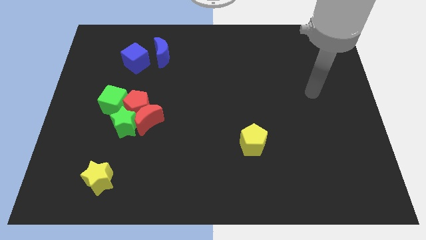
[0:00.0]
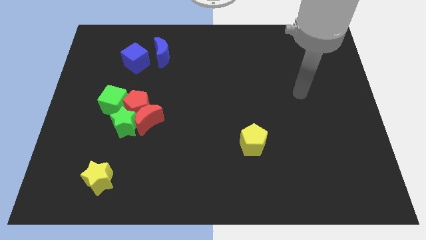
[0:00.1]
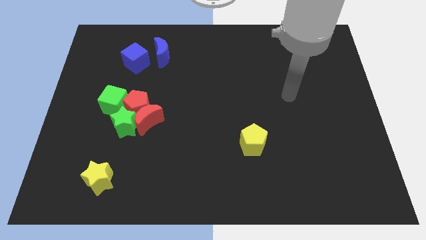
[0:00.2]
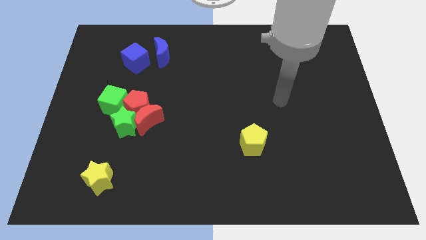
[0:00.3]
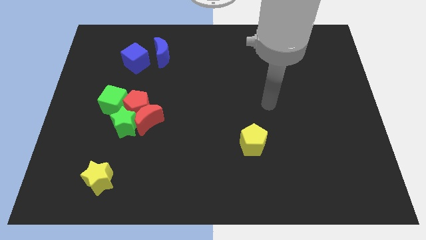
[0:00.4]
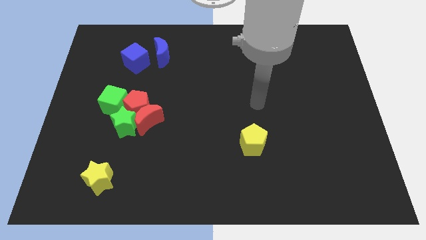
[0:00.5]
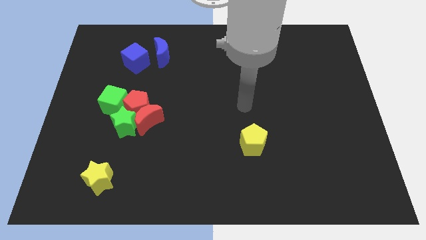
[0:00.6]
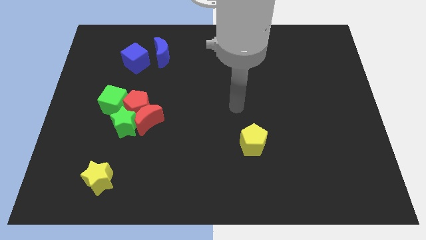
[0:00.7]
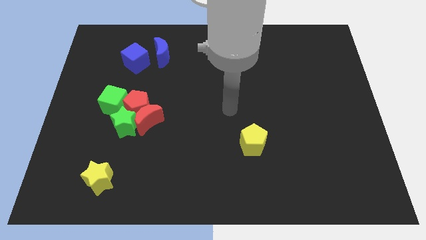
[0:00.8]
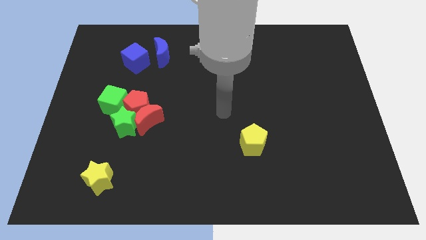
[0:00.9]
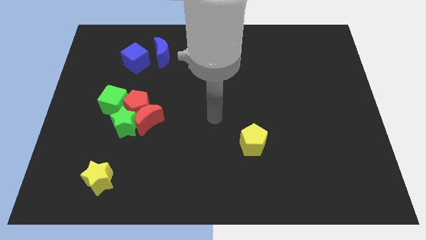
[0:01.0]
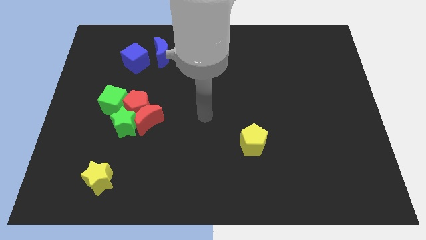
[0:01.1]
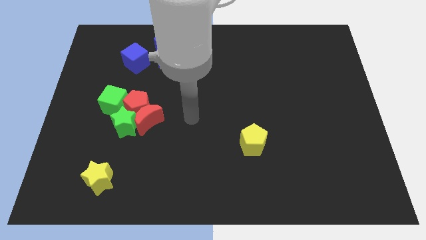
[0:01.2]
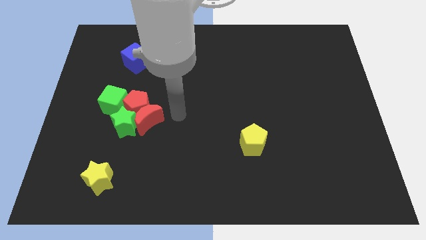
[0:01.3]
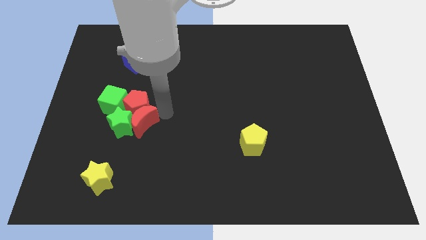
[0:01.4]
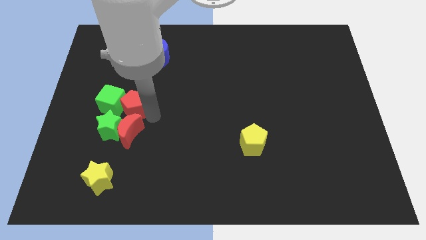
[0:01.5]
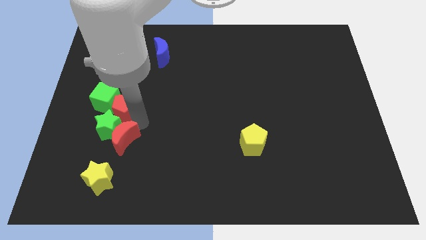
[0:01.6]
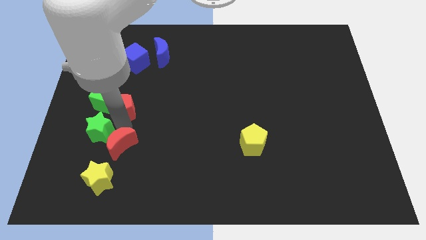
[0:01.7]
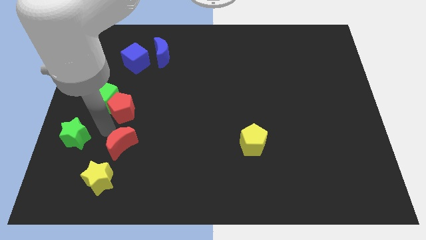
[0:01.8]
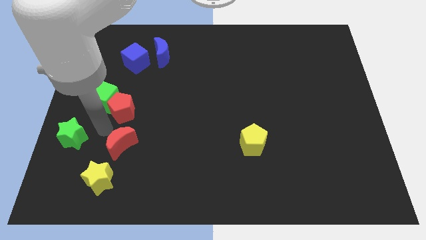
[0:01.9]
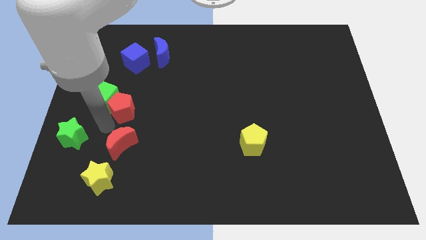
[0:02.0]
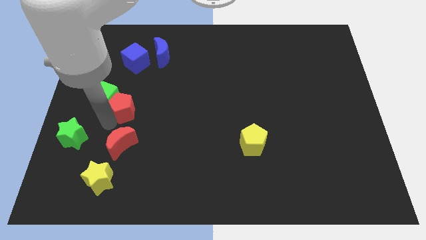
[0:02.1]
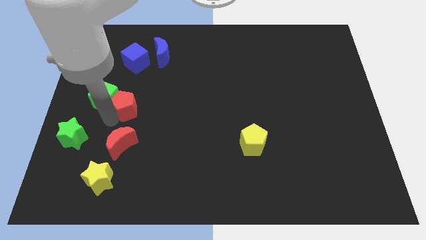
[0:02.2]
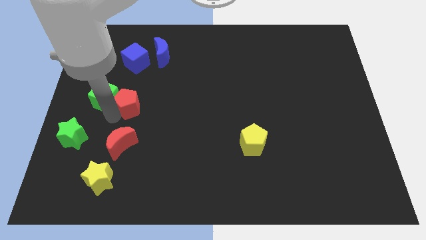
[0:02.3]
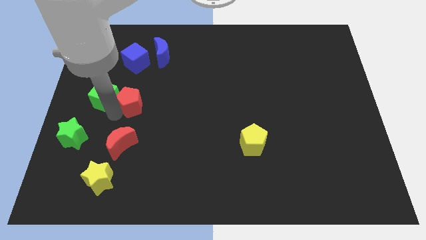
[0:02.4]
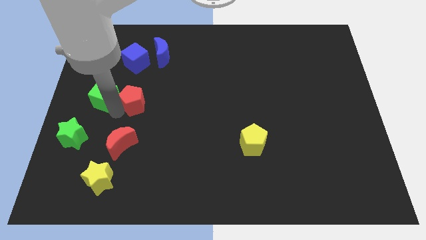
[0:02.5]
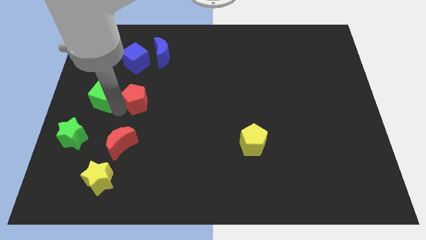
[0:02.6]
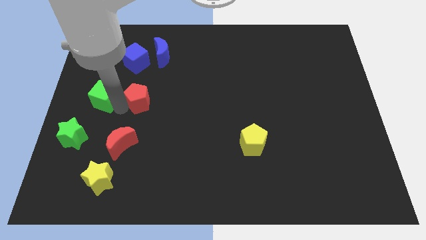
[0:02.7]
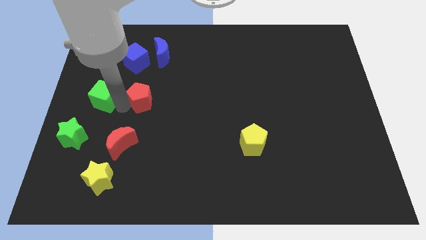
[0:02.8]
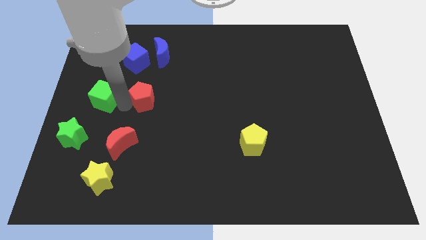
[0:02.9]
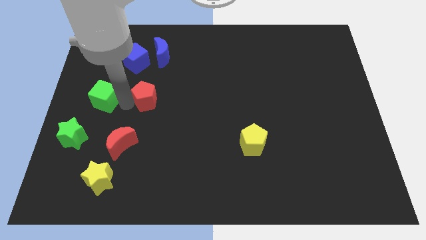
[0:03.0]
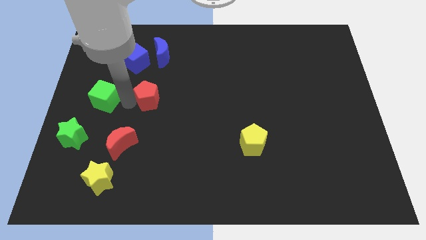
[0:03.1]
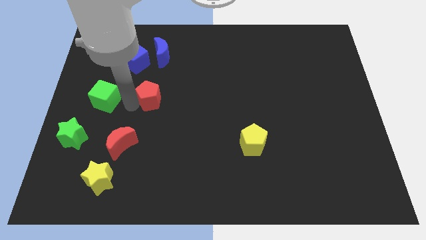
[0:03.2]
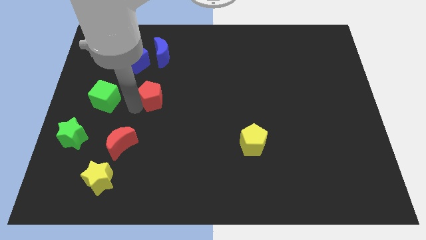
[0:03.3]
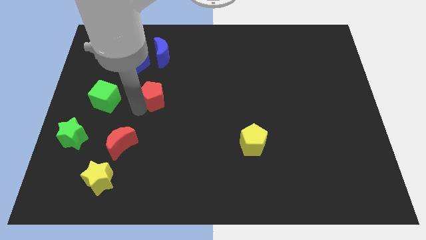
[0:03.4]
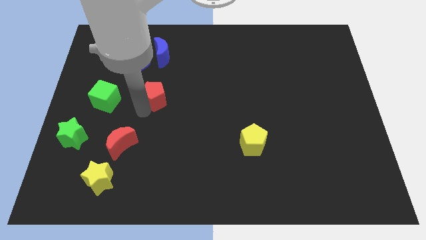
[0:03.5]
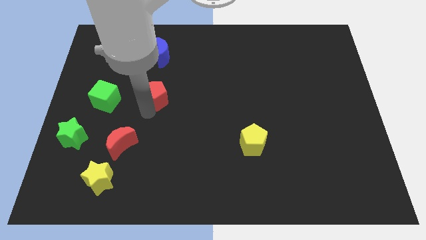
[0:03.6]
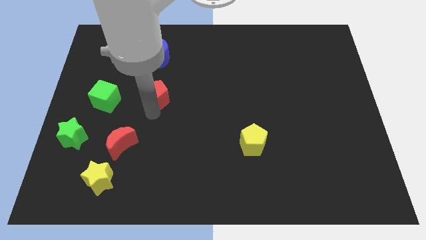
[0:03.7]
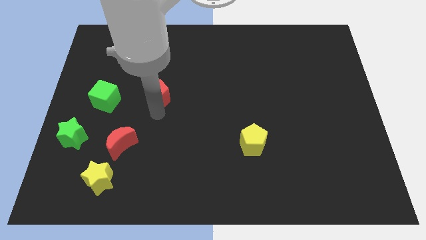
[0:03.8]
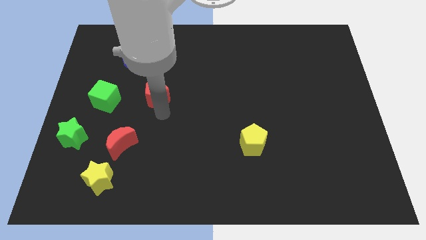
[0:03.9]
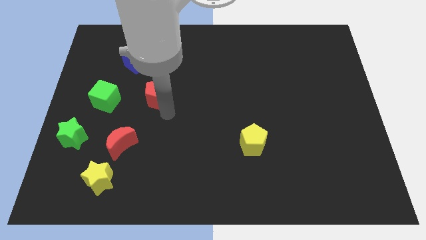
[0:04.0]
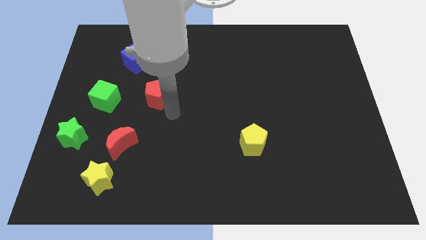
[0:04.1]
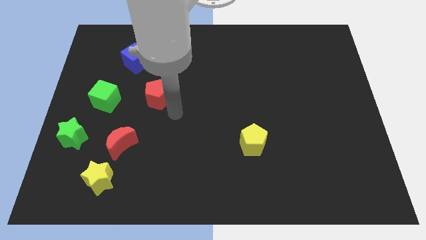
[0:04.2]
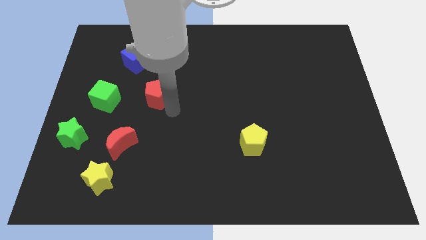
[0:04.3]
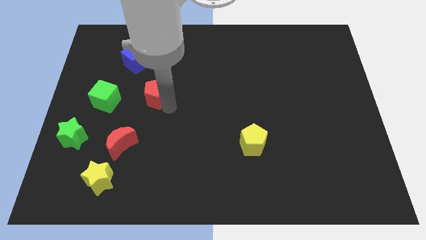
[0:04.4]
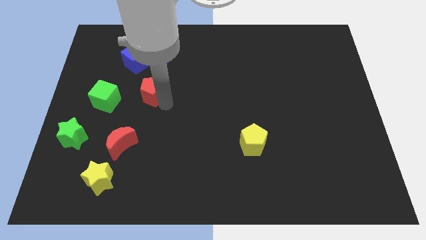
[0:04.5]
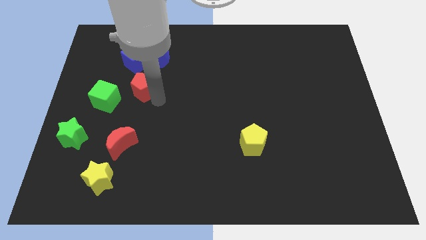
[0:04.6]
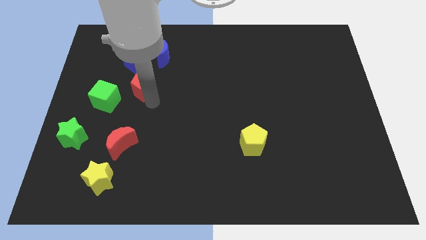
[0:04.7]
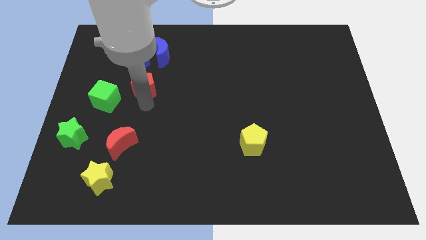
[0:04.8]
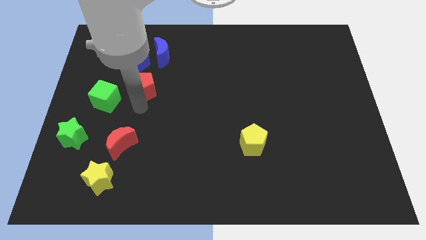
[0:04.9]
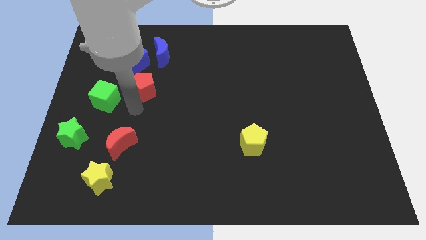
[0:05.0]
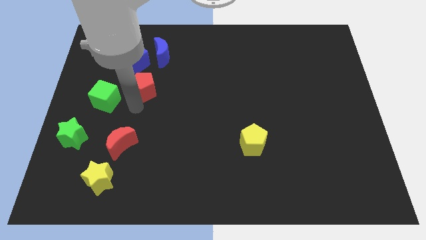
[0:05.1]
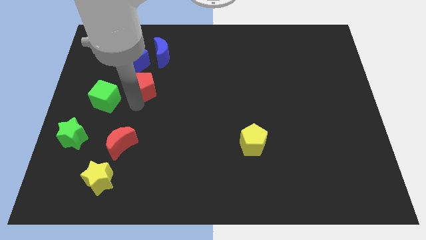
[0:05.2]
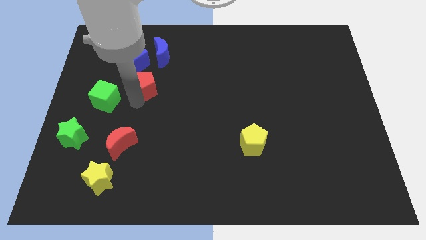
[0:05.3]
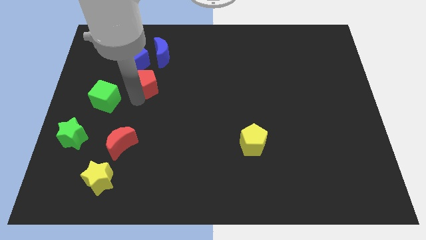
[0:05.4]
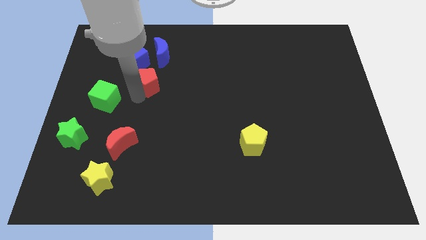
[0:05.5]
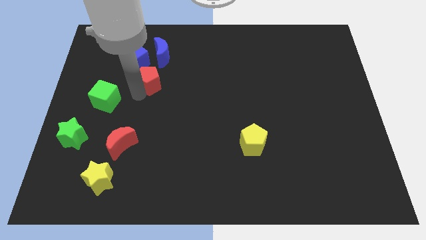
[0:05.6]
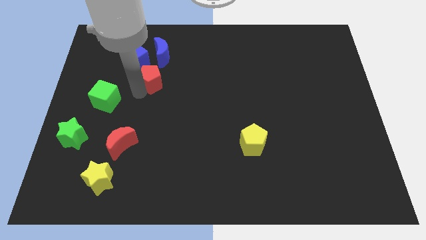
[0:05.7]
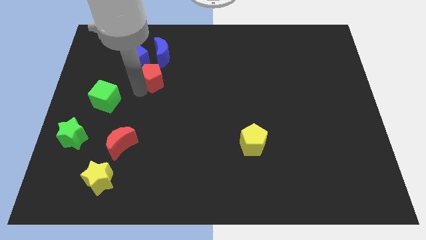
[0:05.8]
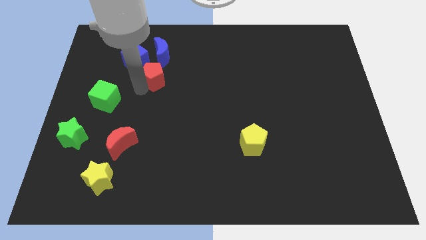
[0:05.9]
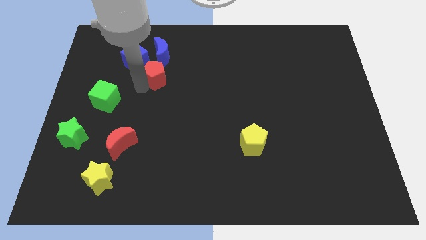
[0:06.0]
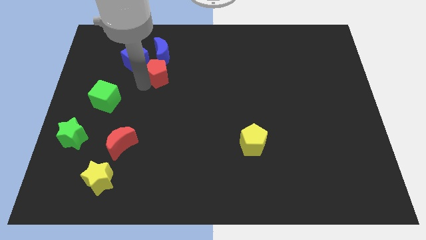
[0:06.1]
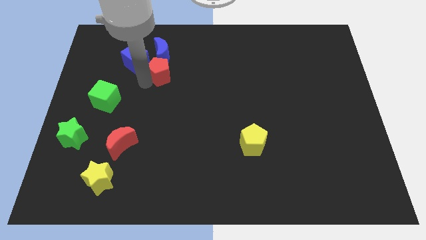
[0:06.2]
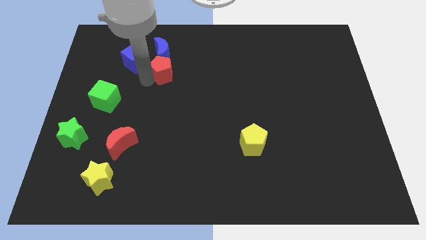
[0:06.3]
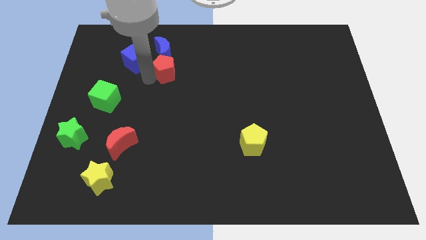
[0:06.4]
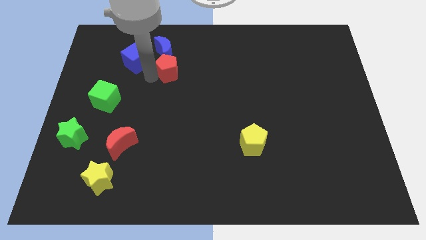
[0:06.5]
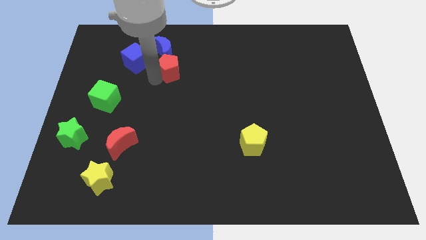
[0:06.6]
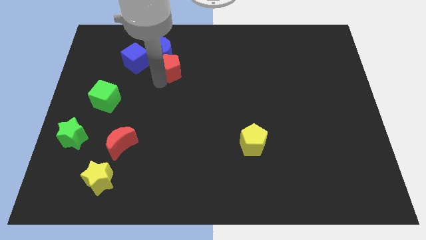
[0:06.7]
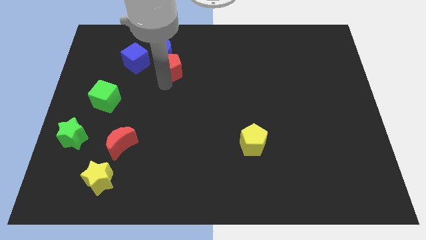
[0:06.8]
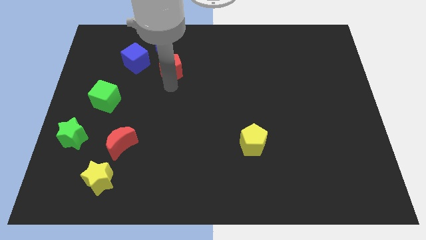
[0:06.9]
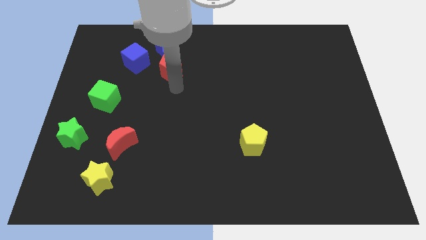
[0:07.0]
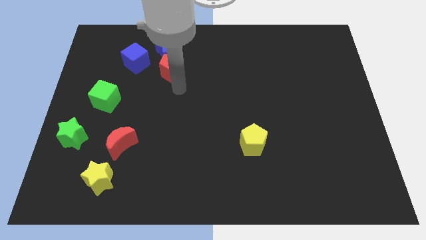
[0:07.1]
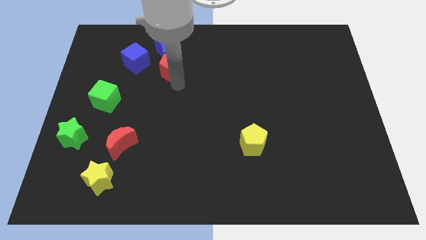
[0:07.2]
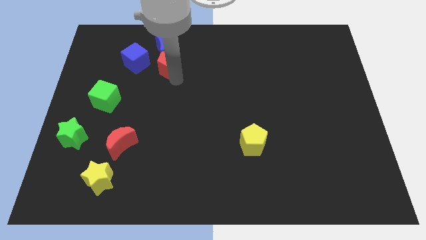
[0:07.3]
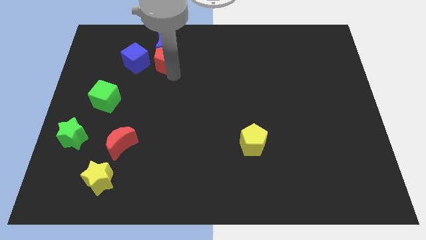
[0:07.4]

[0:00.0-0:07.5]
put the red pentagon close to the blue moon
